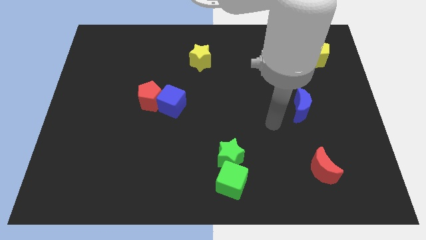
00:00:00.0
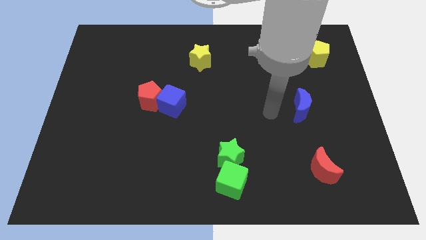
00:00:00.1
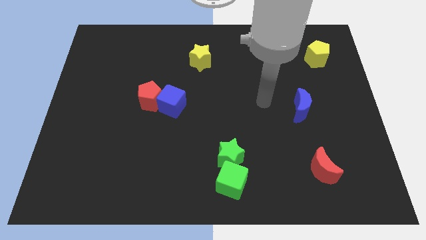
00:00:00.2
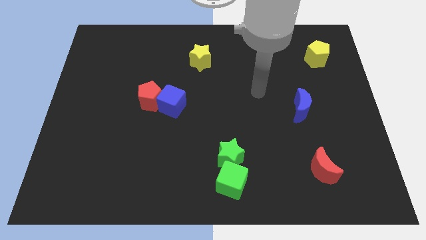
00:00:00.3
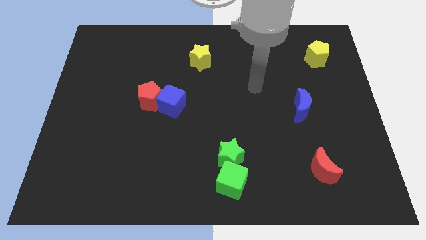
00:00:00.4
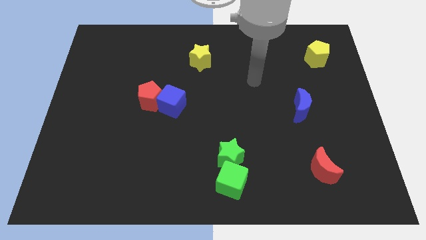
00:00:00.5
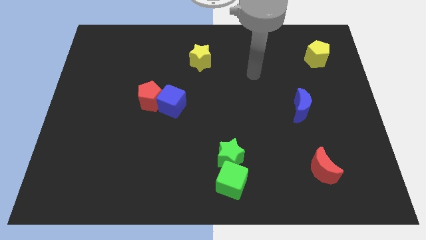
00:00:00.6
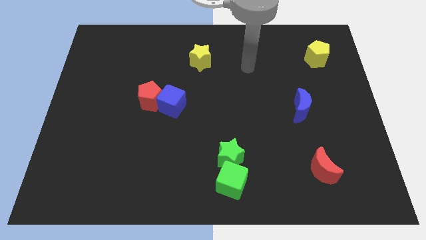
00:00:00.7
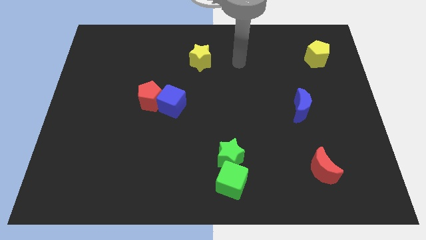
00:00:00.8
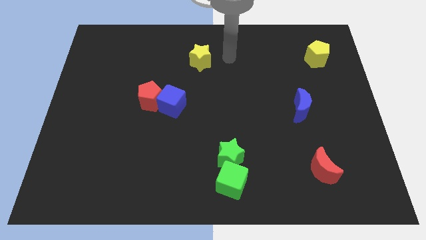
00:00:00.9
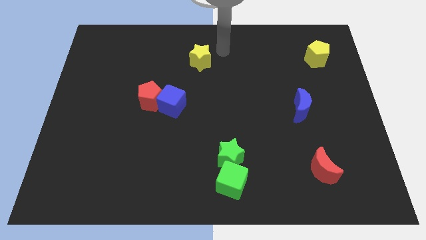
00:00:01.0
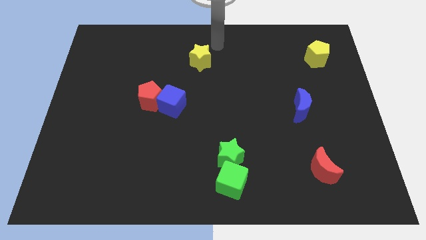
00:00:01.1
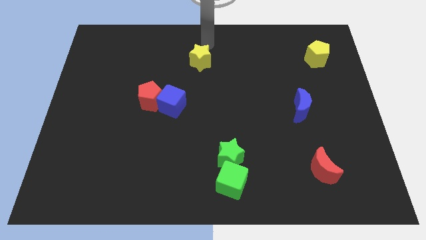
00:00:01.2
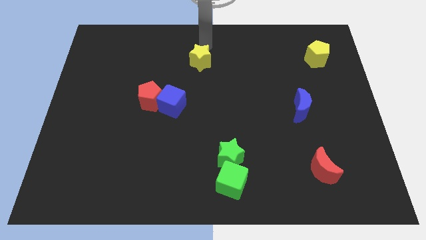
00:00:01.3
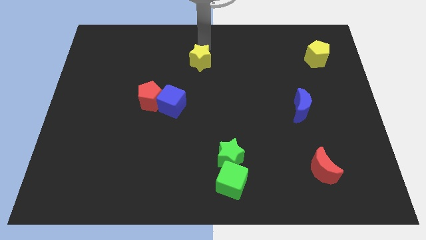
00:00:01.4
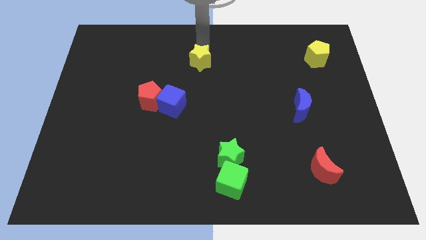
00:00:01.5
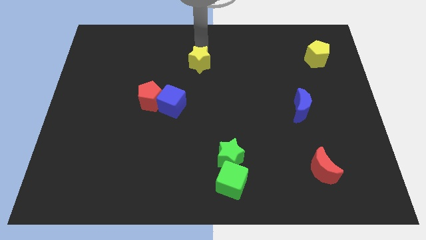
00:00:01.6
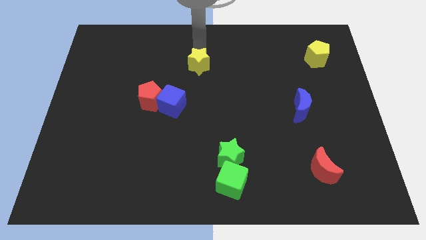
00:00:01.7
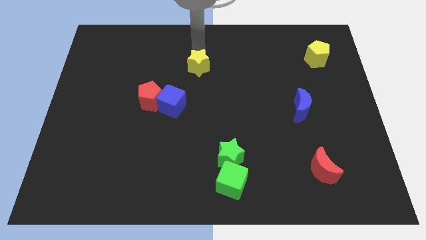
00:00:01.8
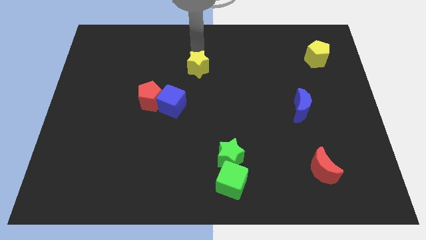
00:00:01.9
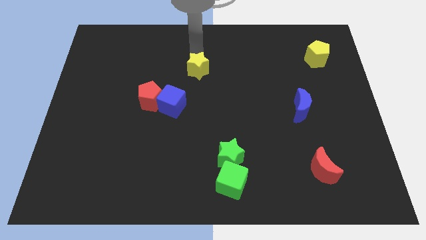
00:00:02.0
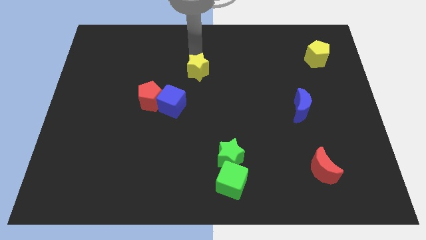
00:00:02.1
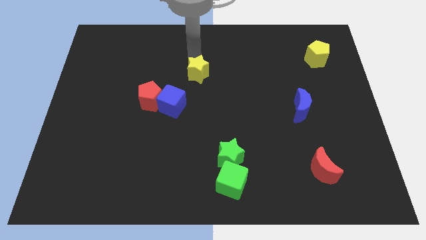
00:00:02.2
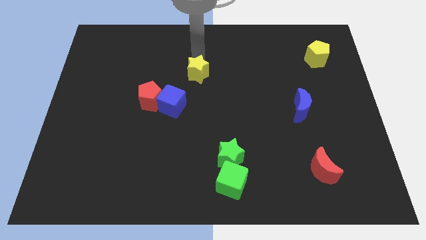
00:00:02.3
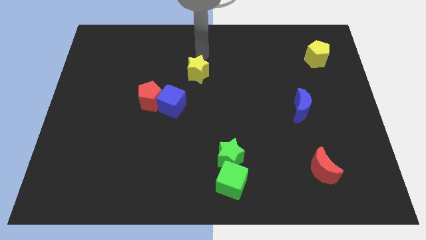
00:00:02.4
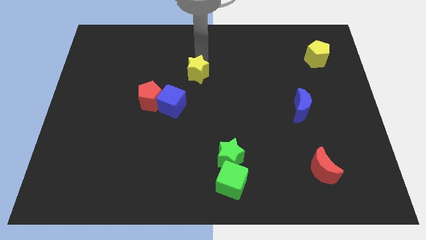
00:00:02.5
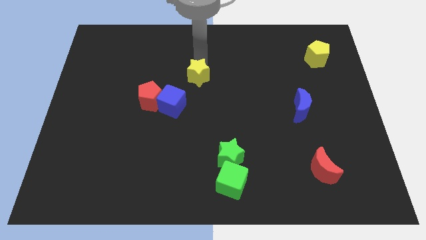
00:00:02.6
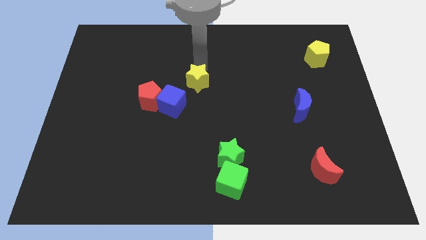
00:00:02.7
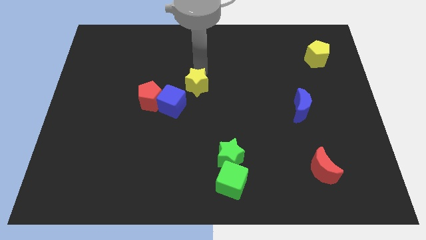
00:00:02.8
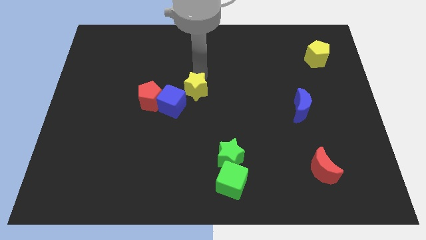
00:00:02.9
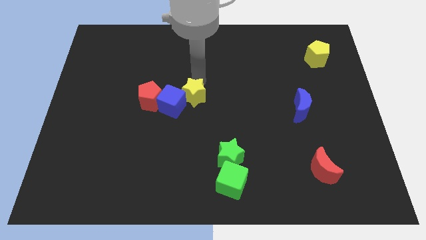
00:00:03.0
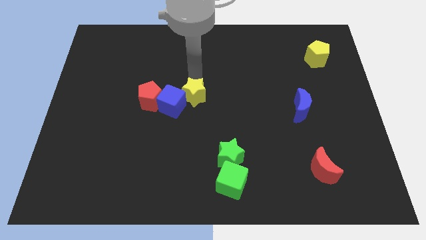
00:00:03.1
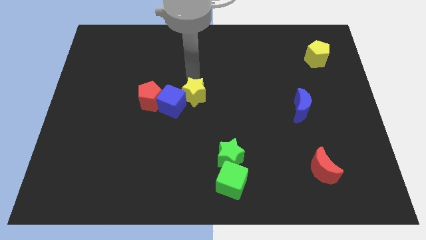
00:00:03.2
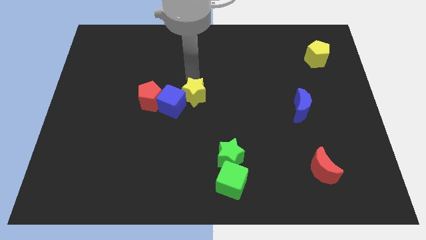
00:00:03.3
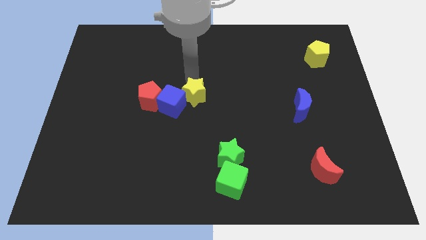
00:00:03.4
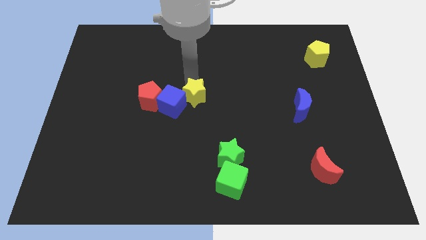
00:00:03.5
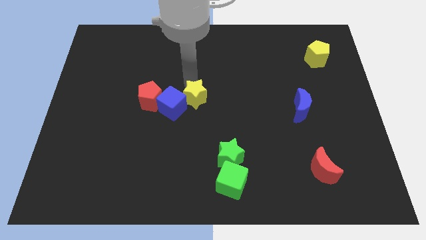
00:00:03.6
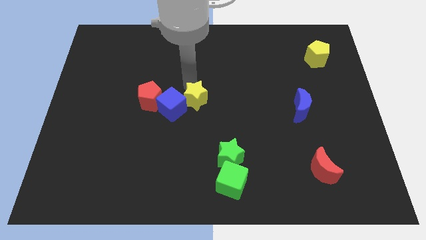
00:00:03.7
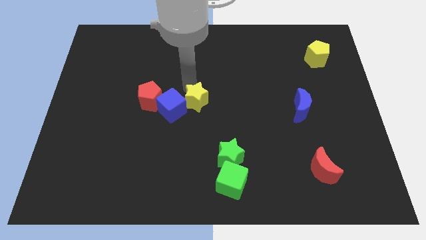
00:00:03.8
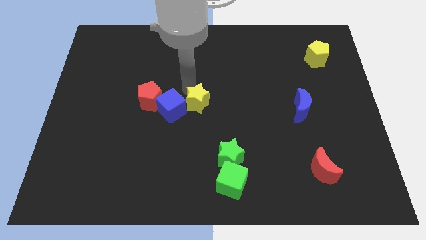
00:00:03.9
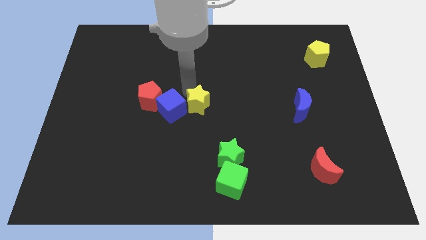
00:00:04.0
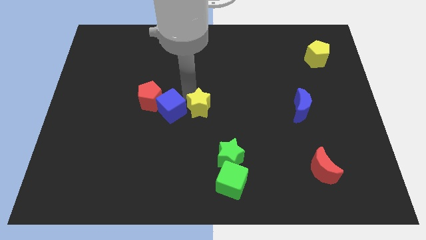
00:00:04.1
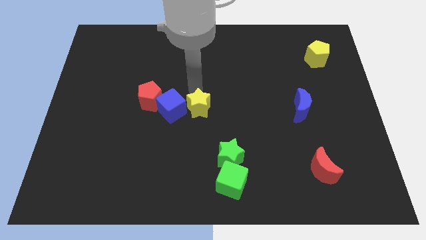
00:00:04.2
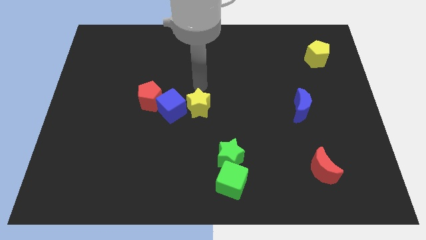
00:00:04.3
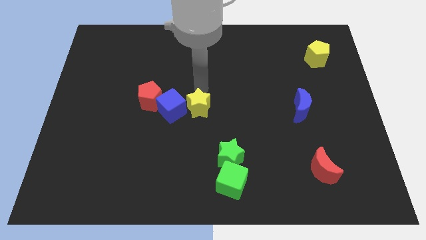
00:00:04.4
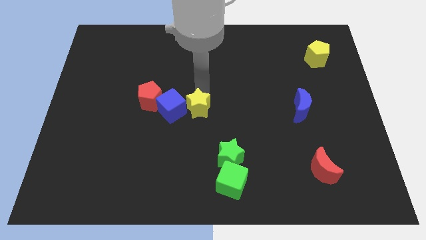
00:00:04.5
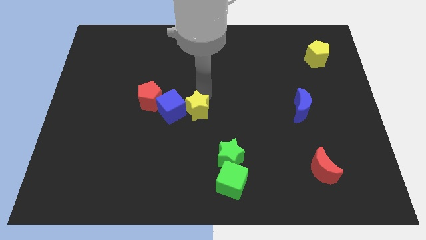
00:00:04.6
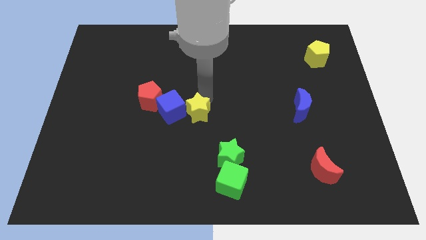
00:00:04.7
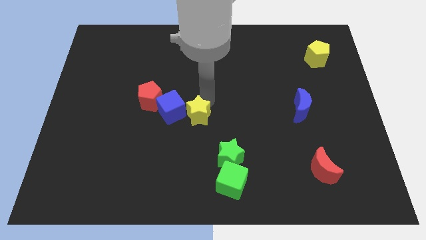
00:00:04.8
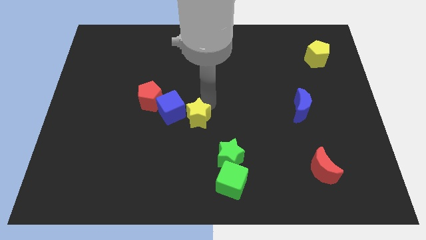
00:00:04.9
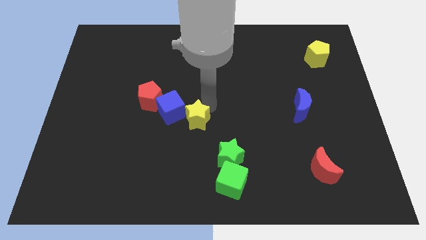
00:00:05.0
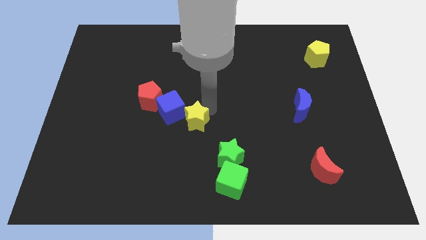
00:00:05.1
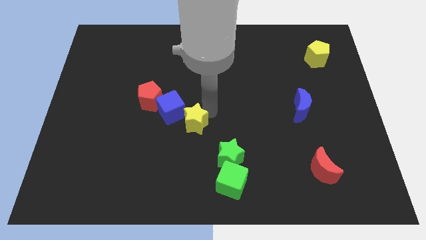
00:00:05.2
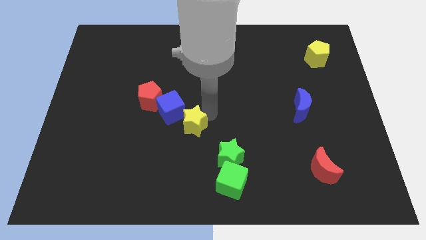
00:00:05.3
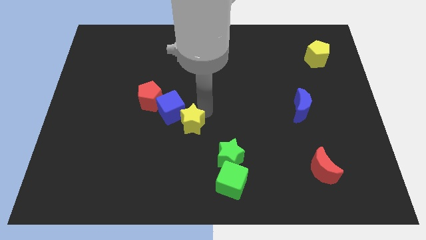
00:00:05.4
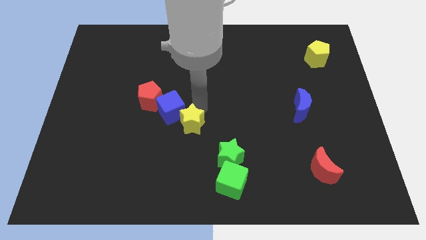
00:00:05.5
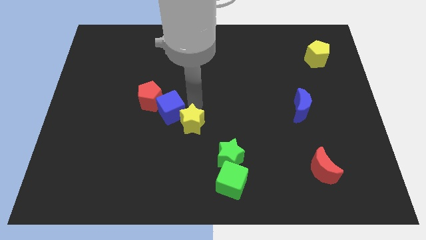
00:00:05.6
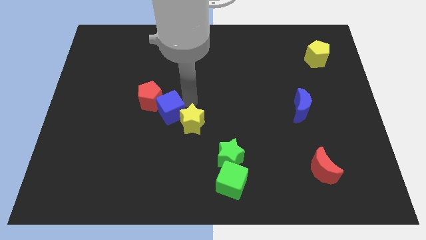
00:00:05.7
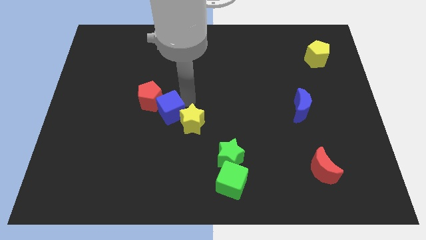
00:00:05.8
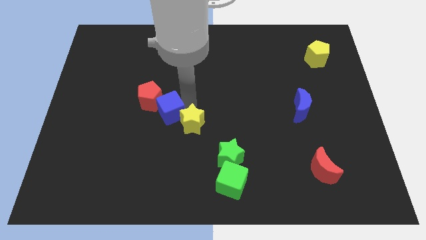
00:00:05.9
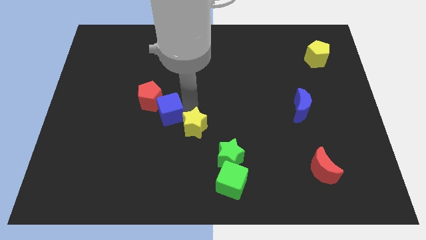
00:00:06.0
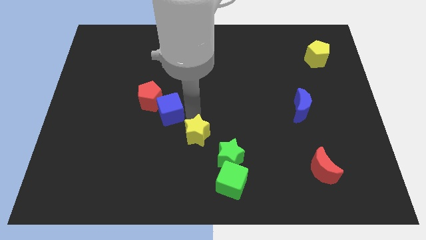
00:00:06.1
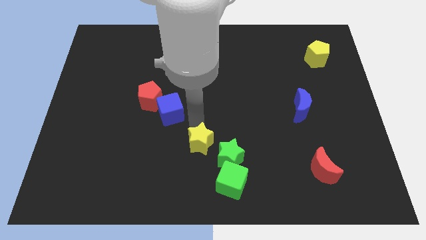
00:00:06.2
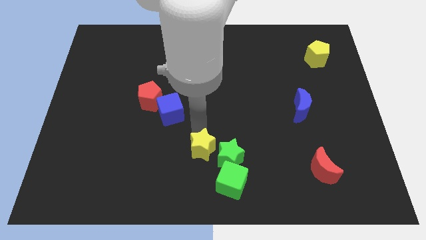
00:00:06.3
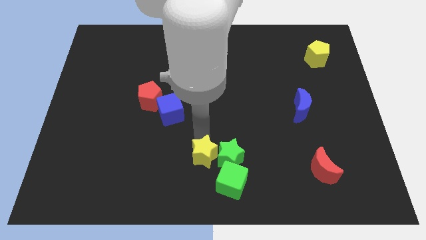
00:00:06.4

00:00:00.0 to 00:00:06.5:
push the yellow star to the bottom

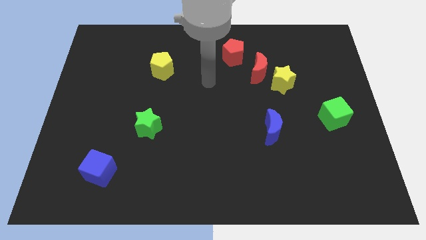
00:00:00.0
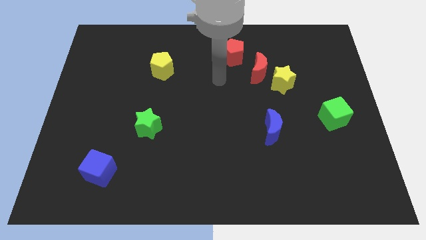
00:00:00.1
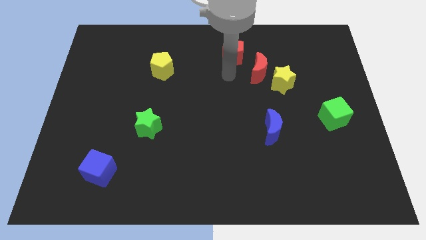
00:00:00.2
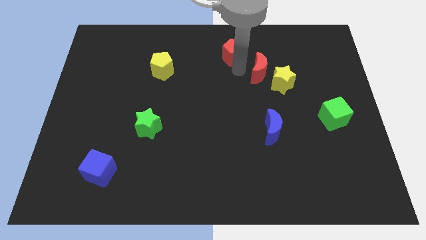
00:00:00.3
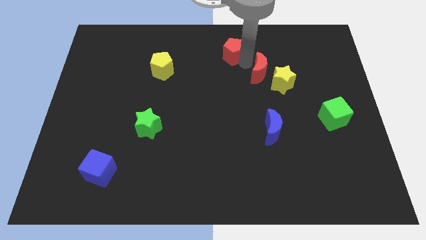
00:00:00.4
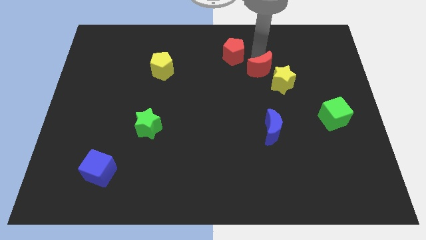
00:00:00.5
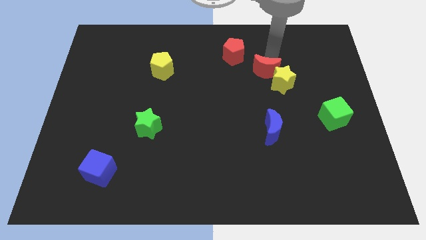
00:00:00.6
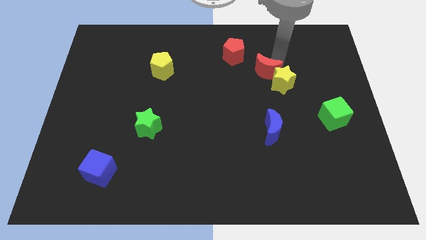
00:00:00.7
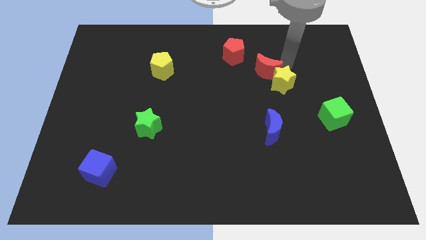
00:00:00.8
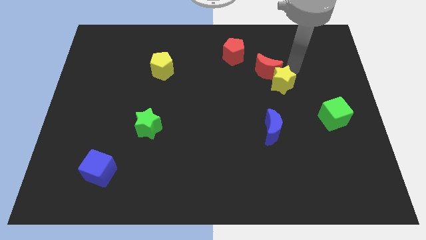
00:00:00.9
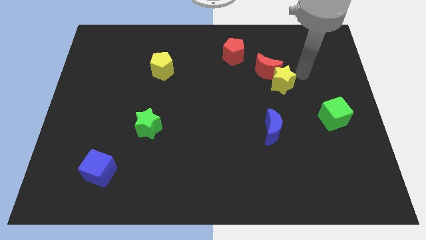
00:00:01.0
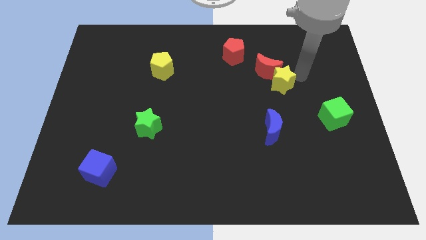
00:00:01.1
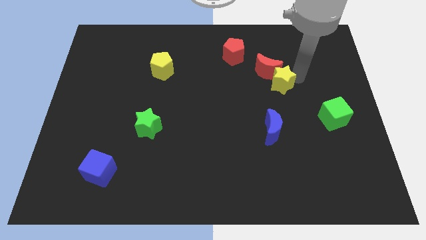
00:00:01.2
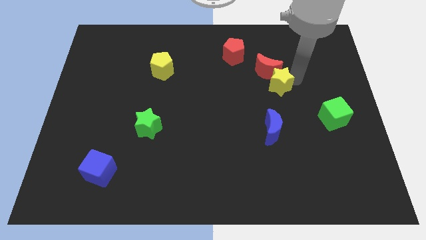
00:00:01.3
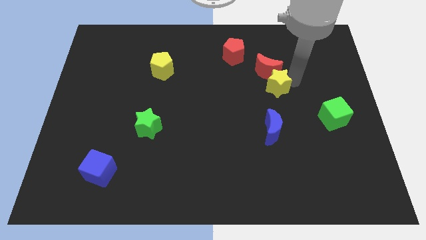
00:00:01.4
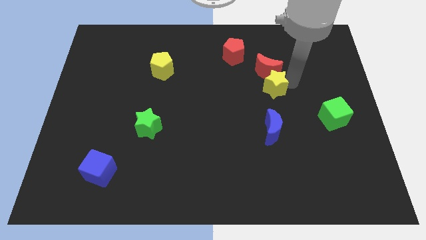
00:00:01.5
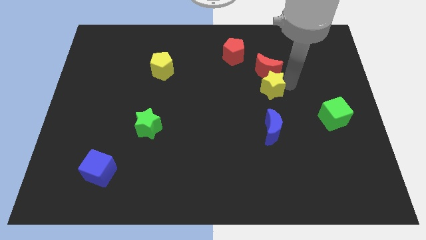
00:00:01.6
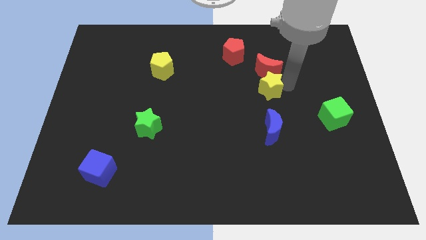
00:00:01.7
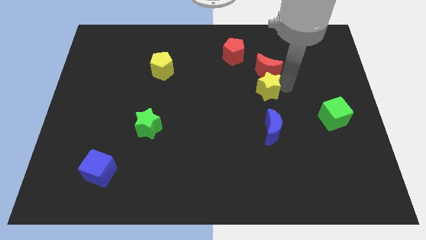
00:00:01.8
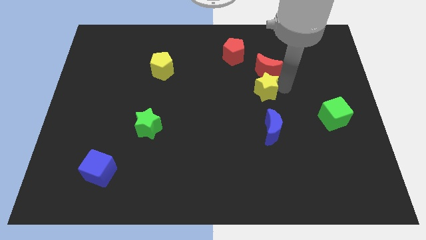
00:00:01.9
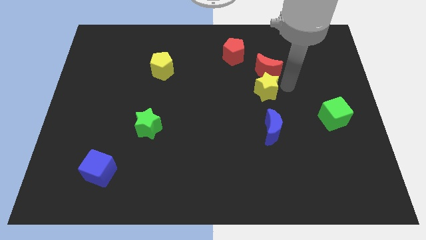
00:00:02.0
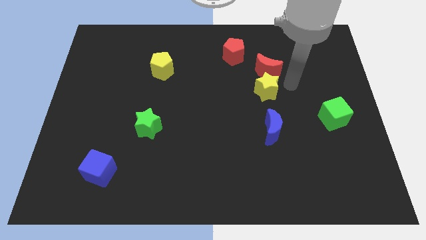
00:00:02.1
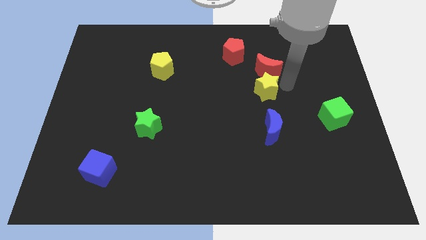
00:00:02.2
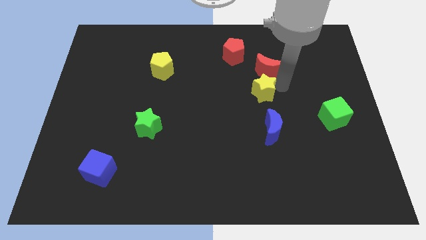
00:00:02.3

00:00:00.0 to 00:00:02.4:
put the yellow star to the middle of the board
